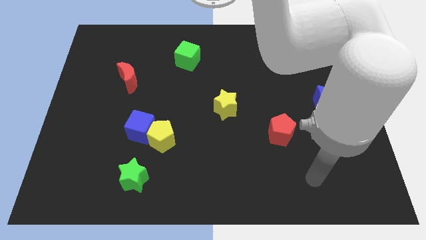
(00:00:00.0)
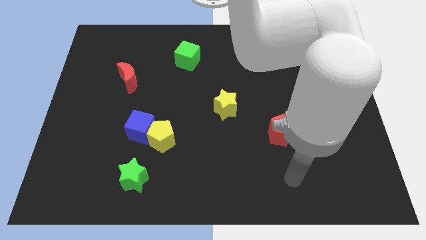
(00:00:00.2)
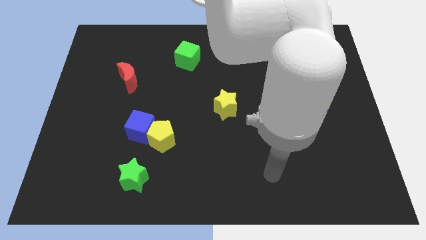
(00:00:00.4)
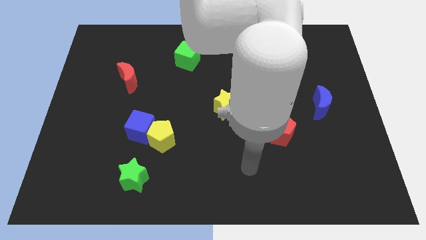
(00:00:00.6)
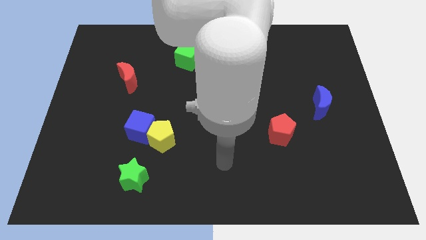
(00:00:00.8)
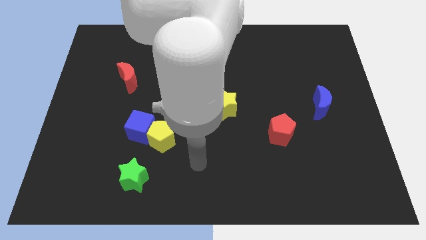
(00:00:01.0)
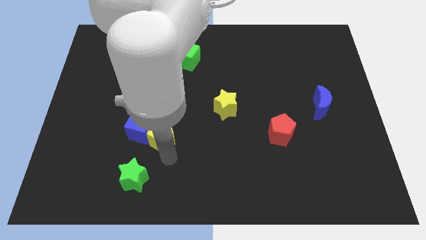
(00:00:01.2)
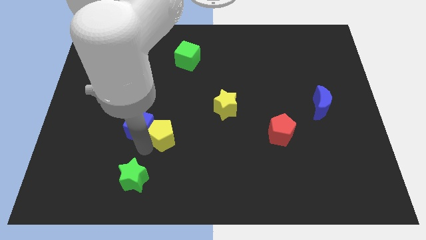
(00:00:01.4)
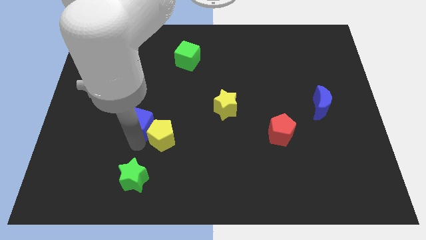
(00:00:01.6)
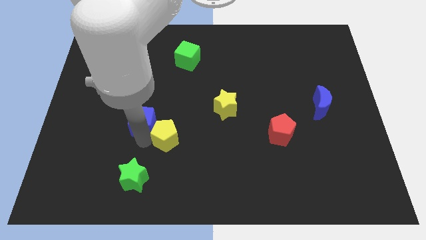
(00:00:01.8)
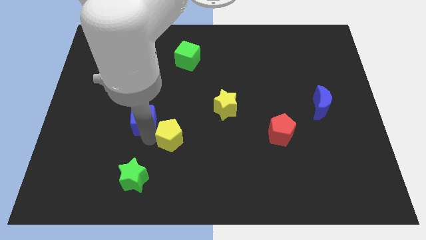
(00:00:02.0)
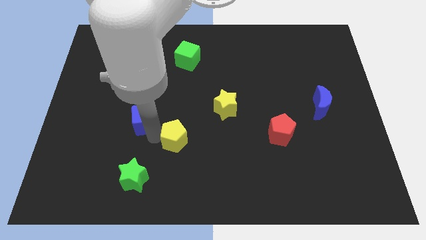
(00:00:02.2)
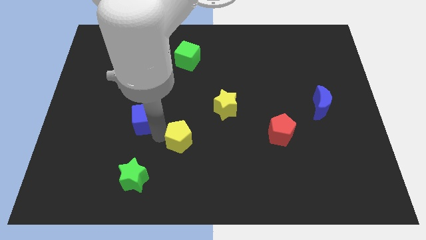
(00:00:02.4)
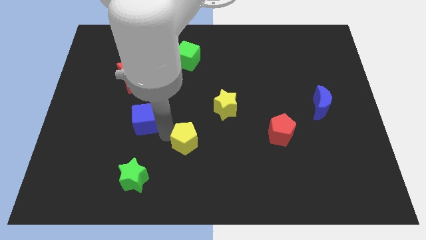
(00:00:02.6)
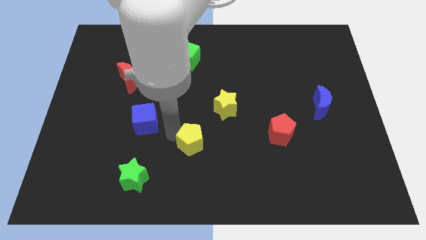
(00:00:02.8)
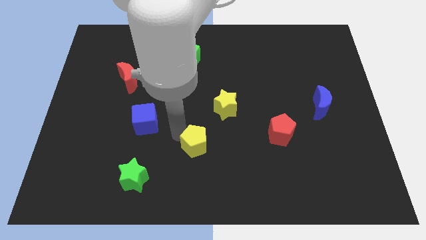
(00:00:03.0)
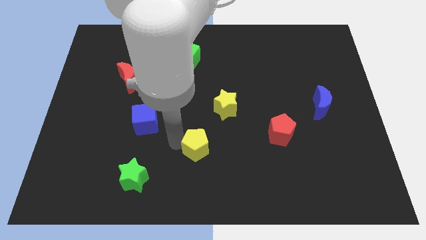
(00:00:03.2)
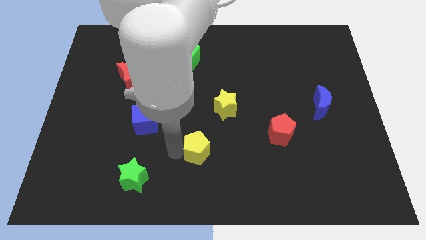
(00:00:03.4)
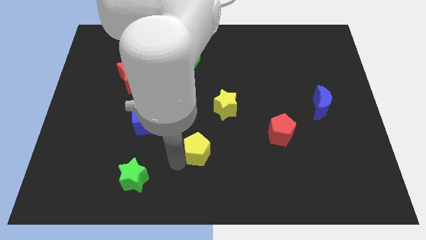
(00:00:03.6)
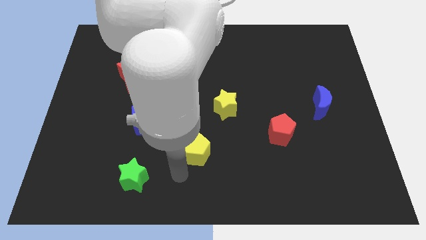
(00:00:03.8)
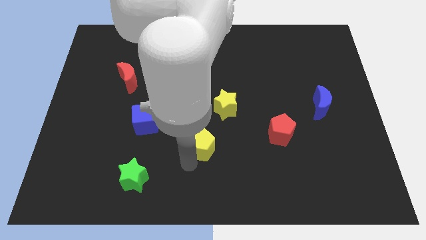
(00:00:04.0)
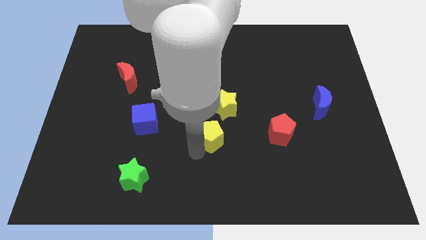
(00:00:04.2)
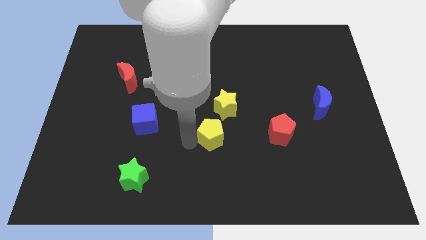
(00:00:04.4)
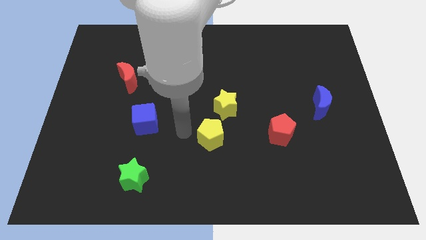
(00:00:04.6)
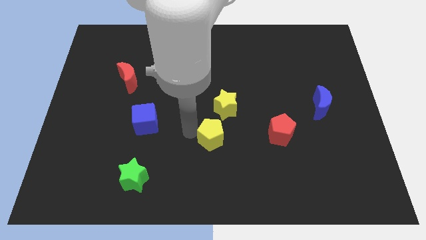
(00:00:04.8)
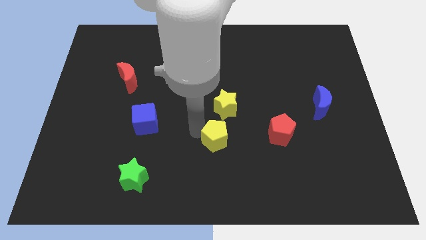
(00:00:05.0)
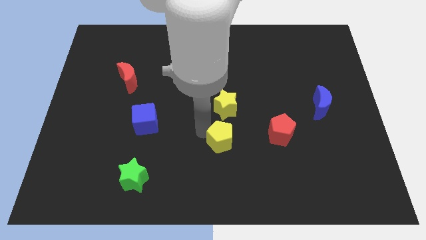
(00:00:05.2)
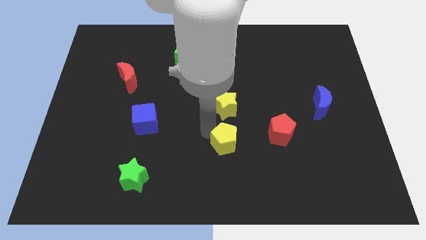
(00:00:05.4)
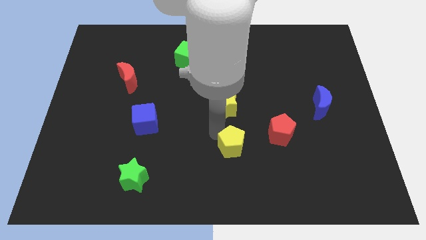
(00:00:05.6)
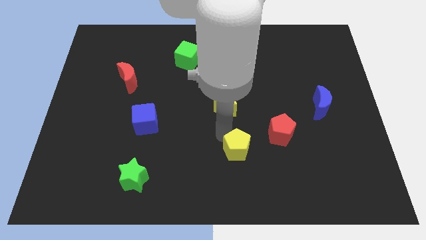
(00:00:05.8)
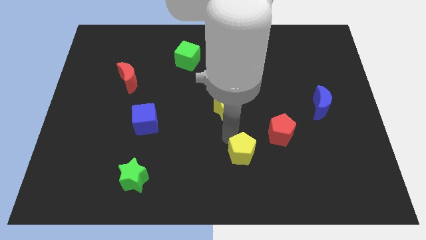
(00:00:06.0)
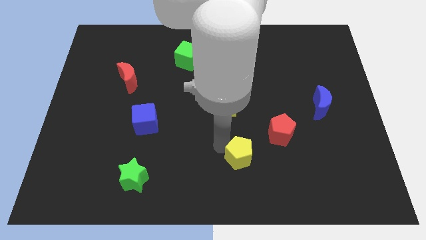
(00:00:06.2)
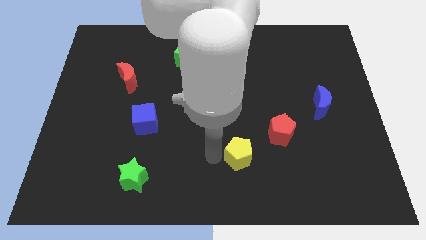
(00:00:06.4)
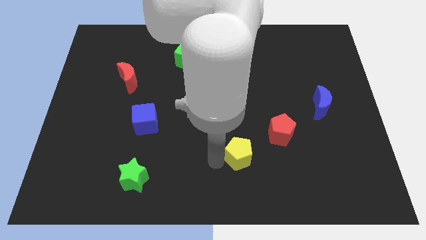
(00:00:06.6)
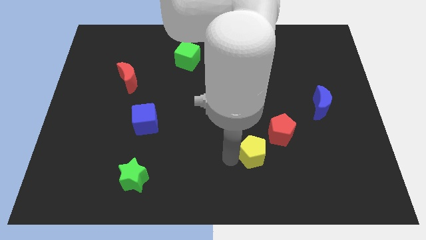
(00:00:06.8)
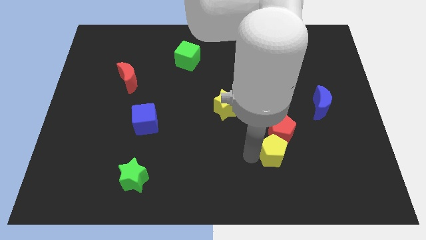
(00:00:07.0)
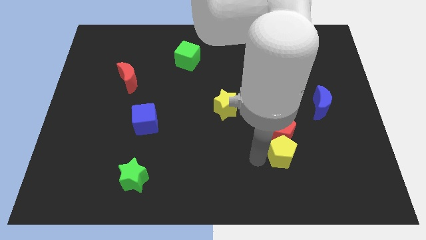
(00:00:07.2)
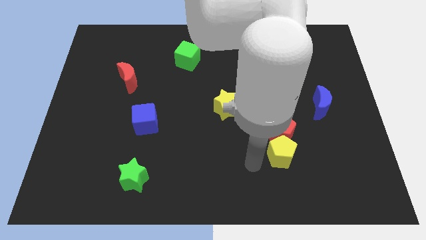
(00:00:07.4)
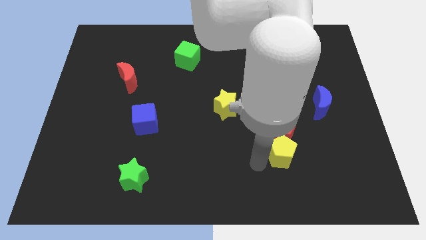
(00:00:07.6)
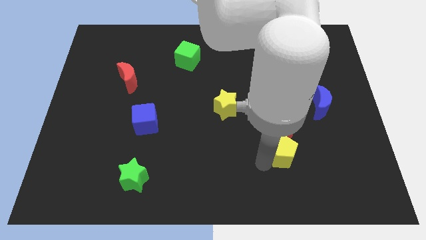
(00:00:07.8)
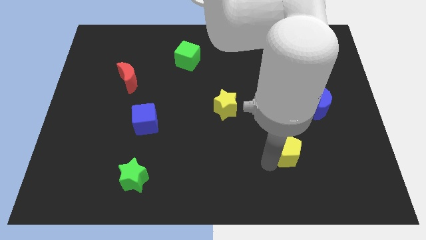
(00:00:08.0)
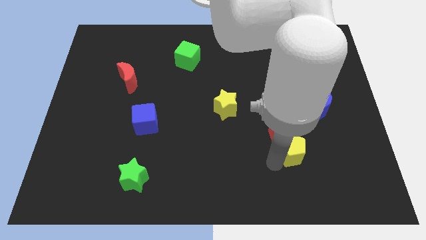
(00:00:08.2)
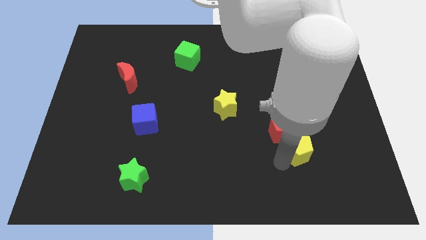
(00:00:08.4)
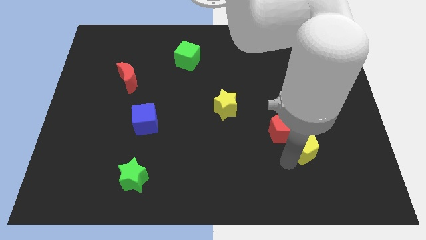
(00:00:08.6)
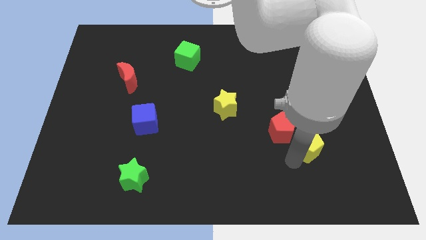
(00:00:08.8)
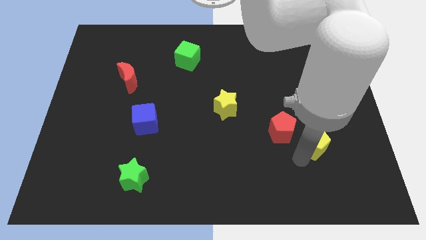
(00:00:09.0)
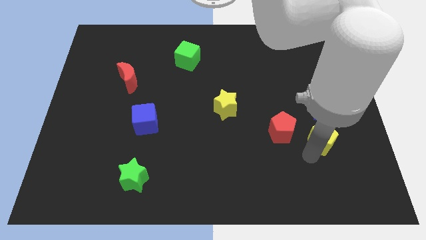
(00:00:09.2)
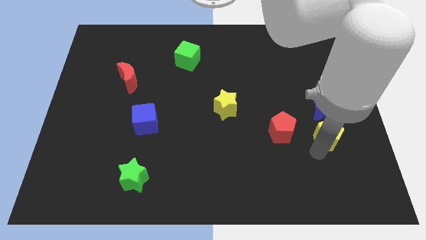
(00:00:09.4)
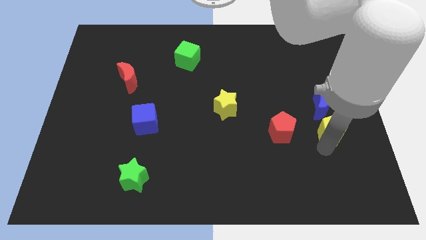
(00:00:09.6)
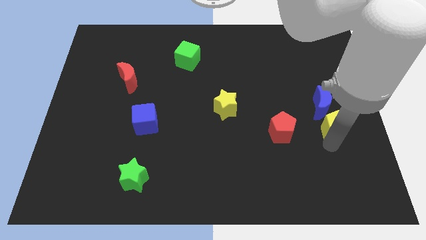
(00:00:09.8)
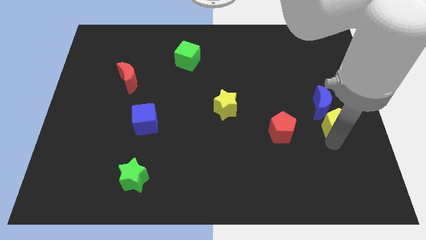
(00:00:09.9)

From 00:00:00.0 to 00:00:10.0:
move the yellow pentagon to the blue moon

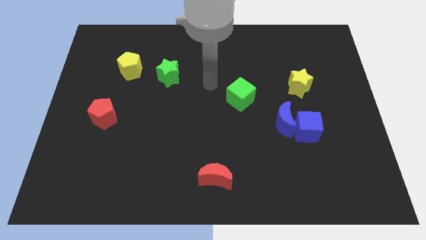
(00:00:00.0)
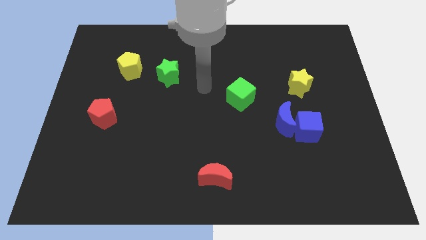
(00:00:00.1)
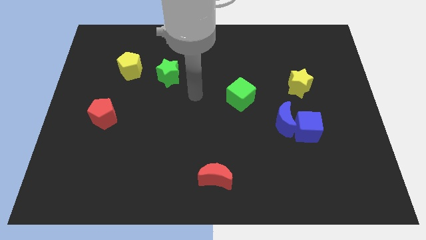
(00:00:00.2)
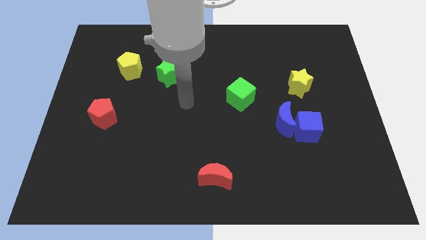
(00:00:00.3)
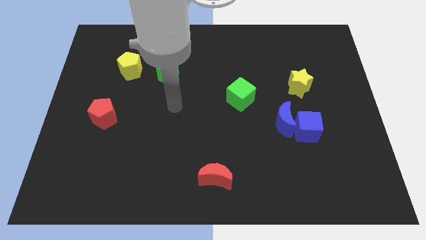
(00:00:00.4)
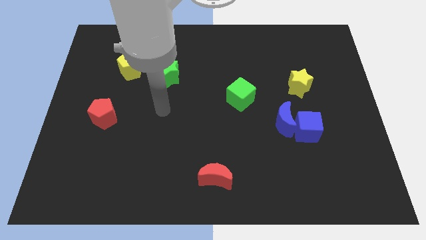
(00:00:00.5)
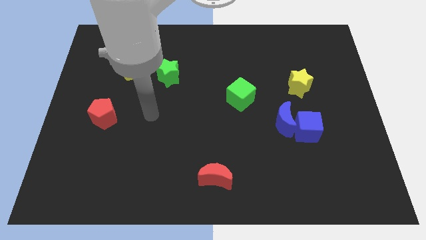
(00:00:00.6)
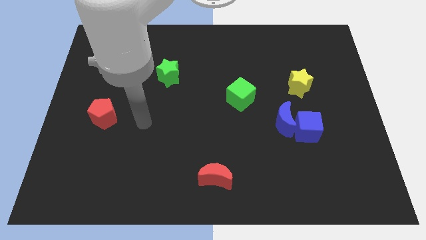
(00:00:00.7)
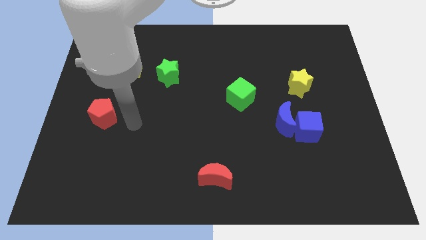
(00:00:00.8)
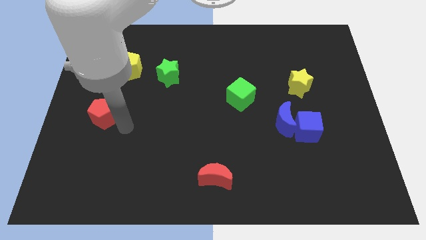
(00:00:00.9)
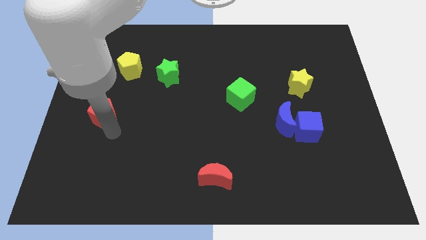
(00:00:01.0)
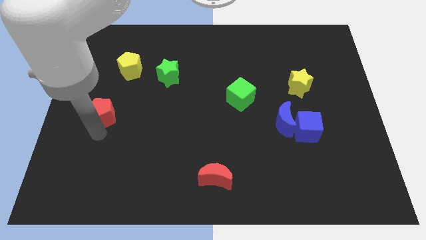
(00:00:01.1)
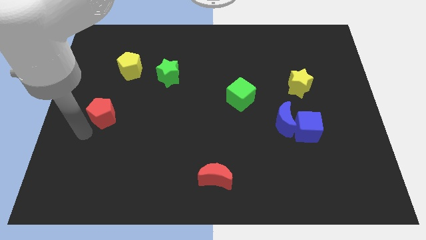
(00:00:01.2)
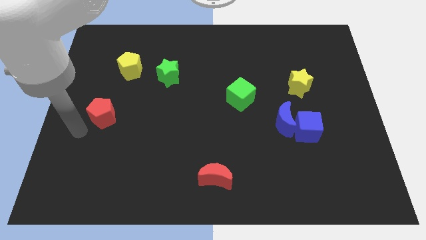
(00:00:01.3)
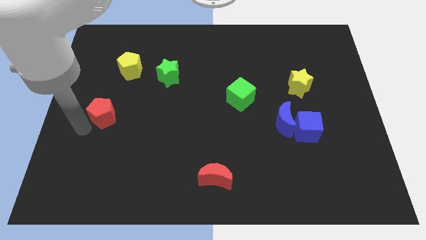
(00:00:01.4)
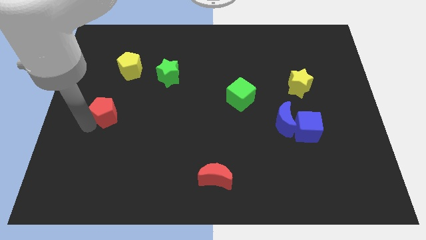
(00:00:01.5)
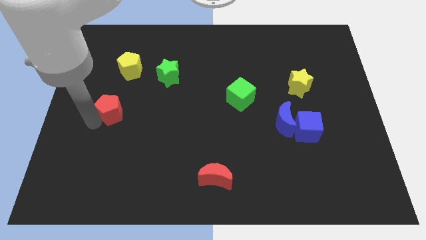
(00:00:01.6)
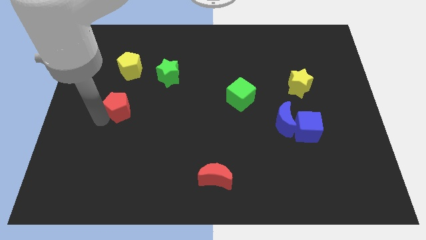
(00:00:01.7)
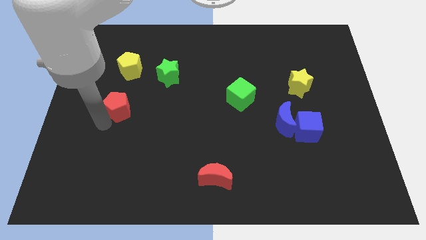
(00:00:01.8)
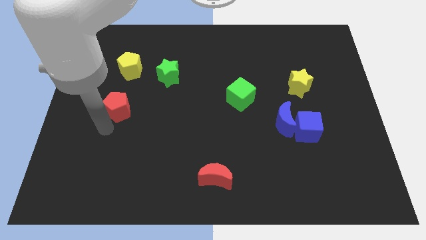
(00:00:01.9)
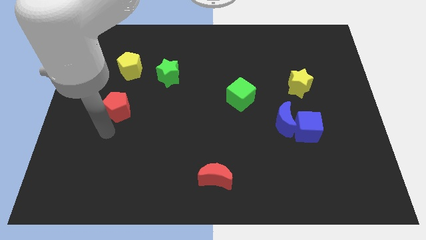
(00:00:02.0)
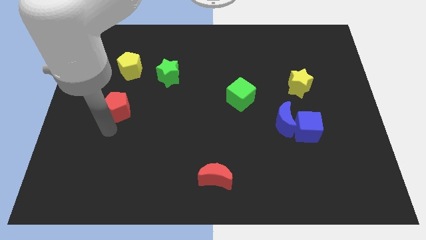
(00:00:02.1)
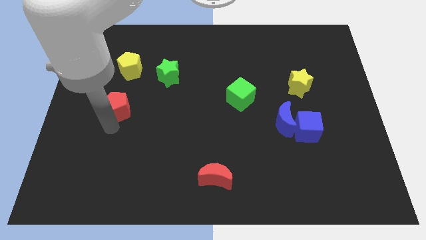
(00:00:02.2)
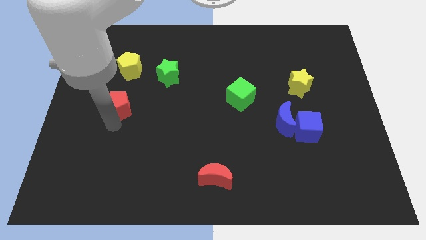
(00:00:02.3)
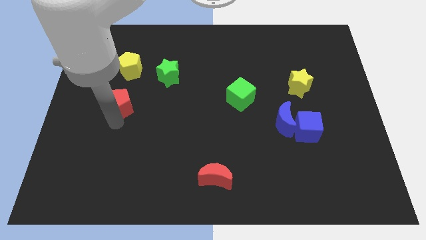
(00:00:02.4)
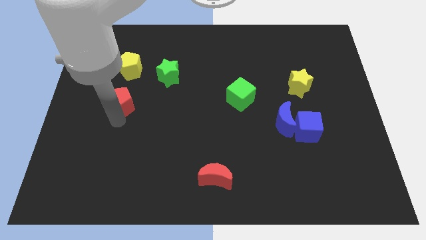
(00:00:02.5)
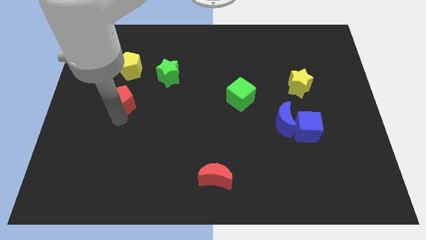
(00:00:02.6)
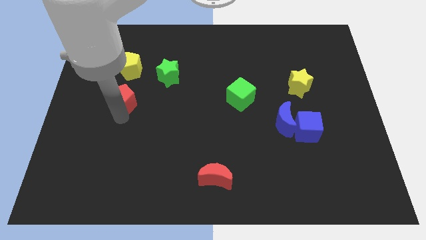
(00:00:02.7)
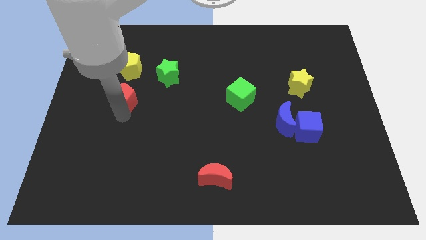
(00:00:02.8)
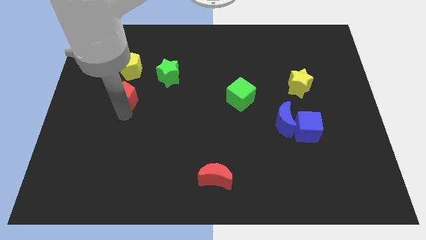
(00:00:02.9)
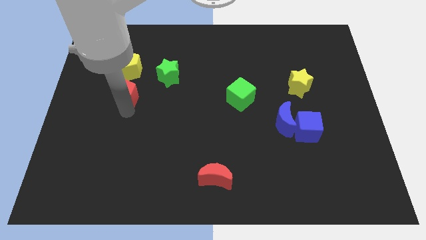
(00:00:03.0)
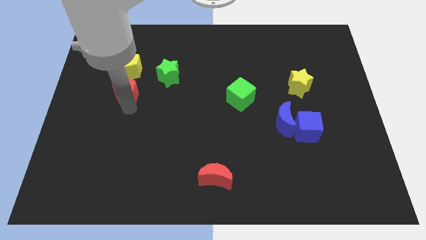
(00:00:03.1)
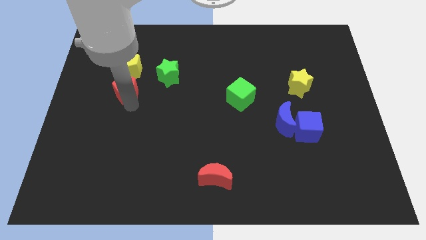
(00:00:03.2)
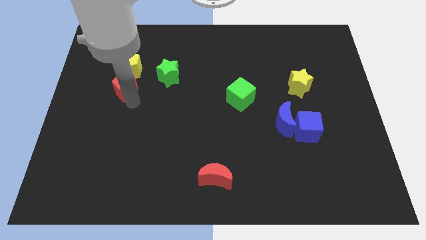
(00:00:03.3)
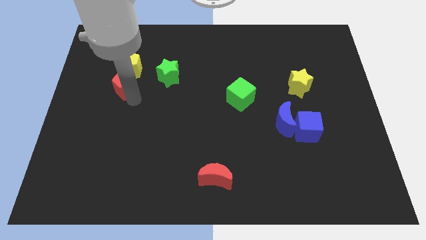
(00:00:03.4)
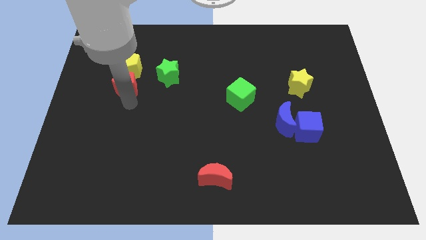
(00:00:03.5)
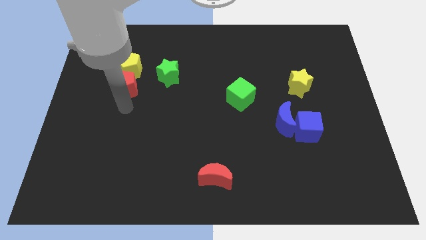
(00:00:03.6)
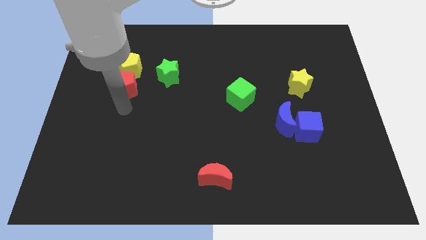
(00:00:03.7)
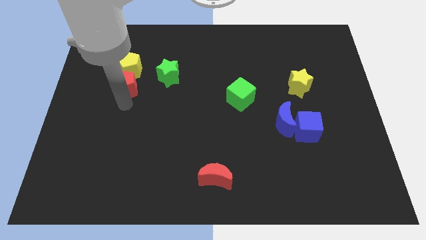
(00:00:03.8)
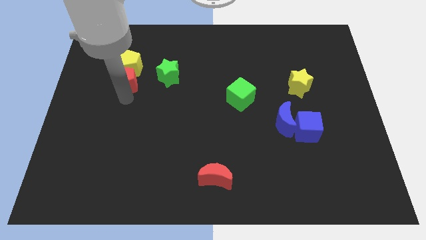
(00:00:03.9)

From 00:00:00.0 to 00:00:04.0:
slide the red pentagon close to the yellow pentagon
